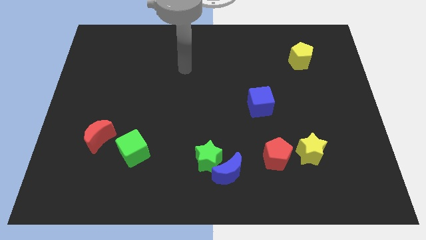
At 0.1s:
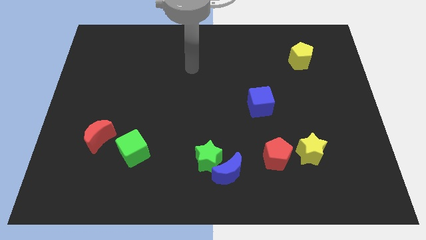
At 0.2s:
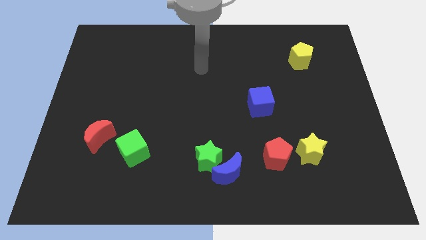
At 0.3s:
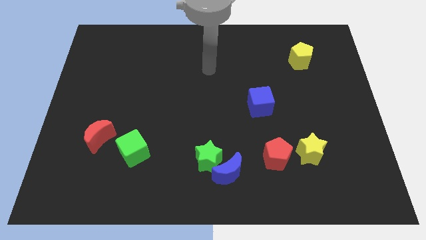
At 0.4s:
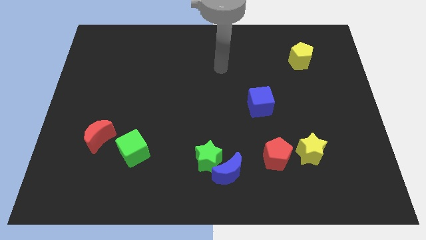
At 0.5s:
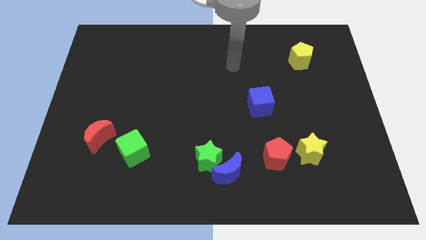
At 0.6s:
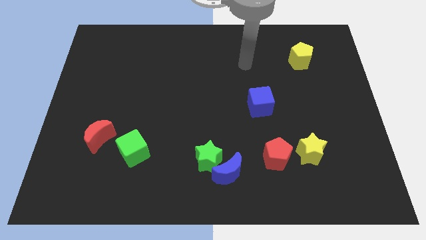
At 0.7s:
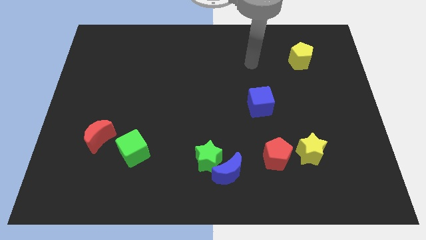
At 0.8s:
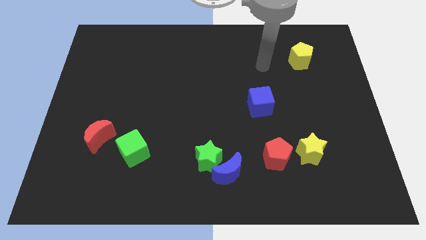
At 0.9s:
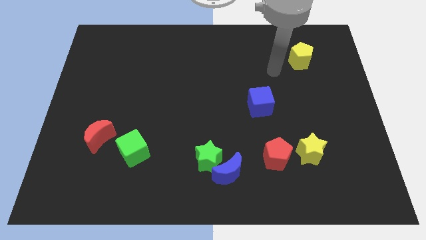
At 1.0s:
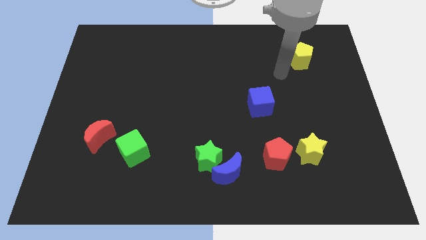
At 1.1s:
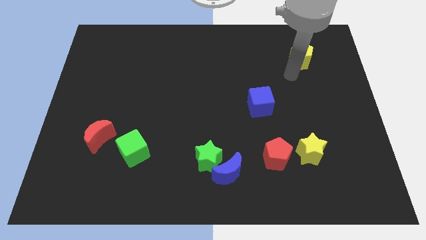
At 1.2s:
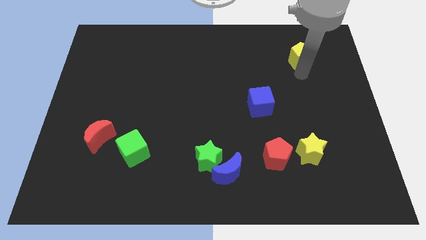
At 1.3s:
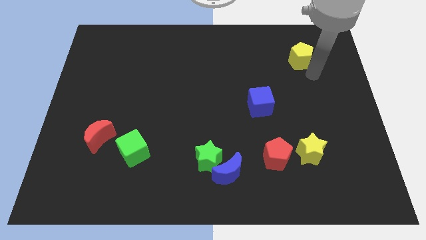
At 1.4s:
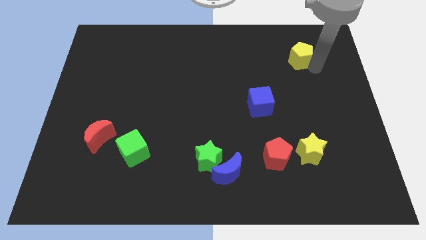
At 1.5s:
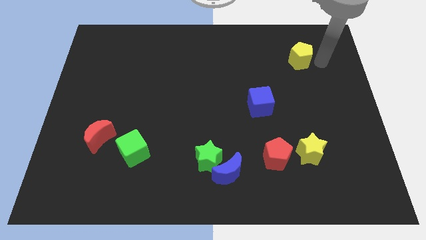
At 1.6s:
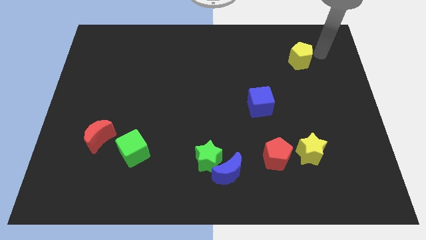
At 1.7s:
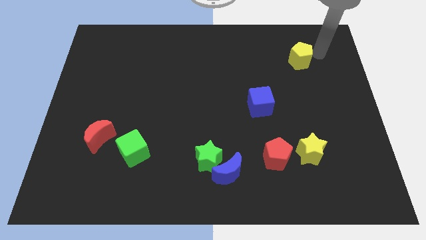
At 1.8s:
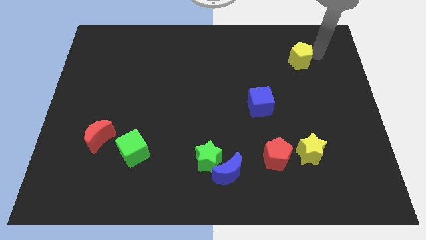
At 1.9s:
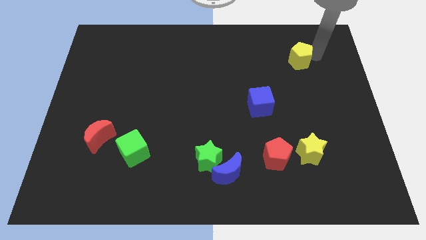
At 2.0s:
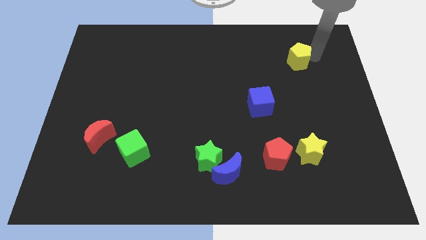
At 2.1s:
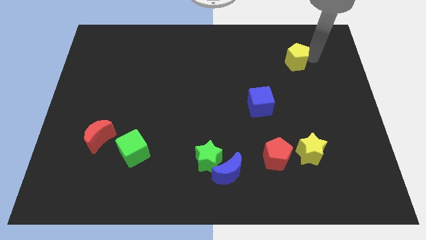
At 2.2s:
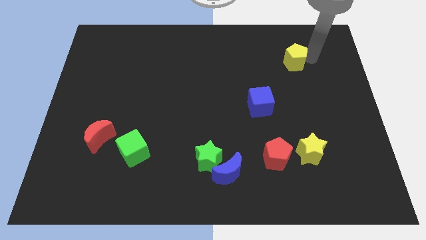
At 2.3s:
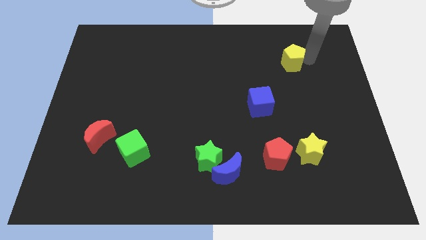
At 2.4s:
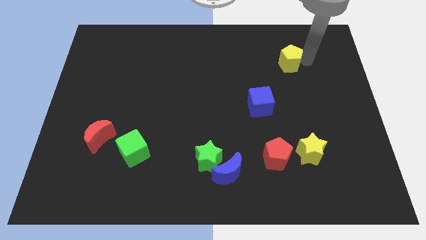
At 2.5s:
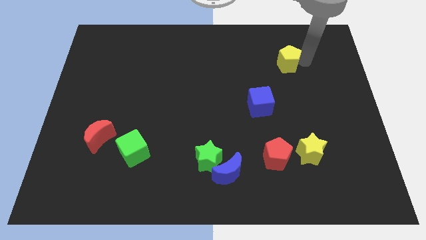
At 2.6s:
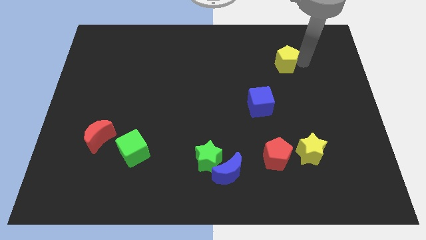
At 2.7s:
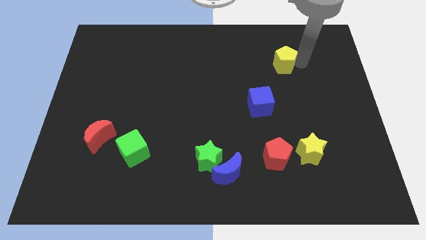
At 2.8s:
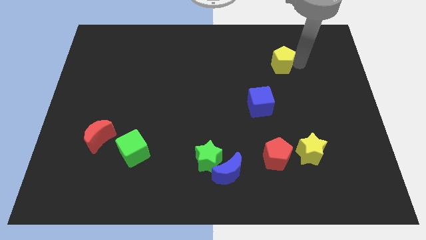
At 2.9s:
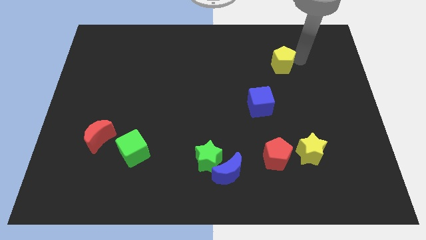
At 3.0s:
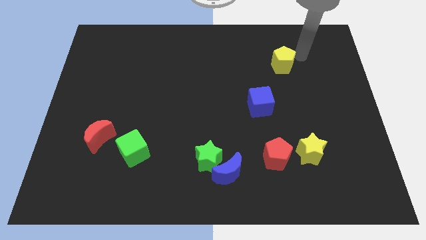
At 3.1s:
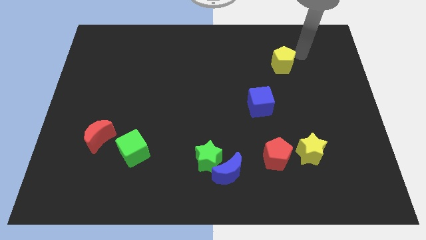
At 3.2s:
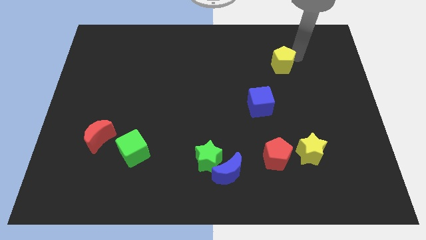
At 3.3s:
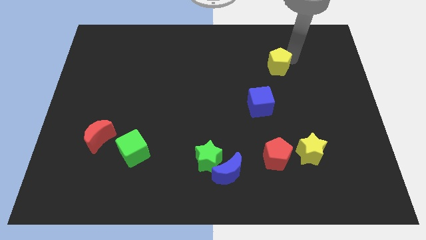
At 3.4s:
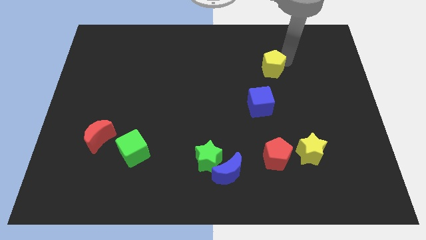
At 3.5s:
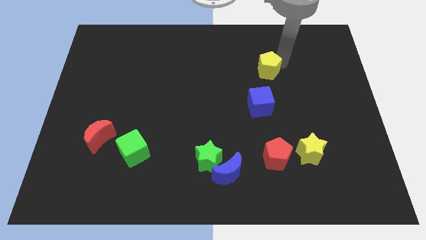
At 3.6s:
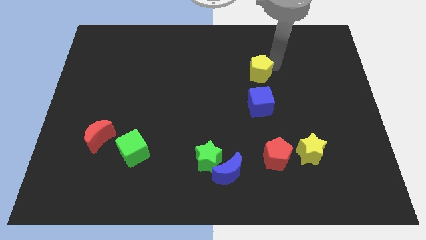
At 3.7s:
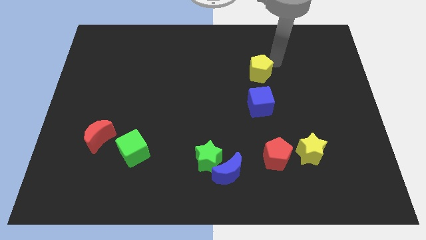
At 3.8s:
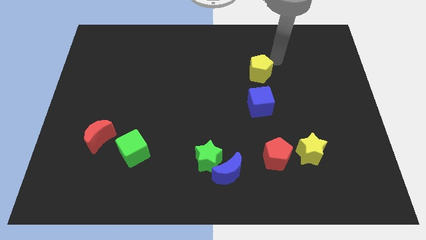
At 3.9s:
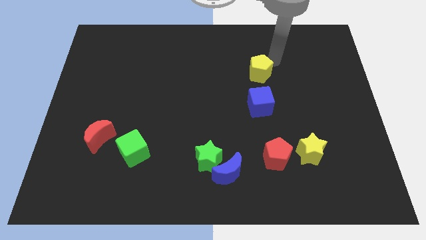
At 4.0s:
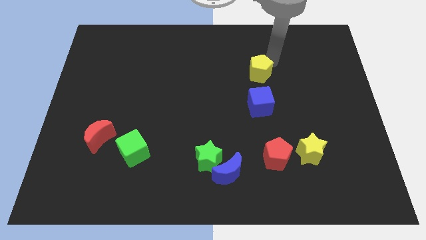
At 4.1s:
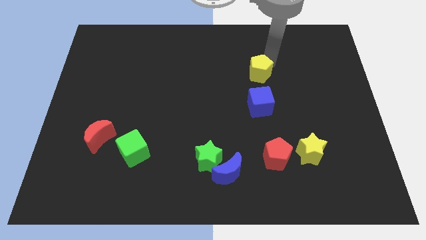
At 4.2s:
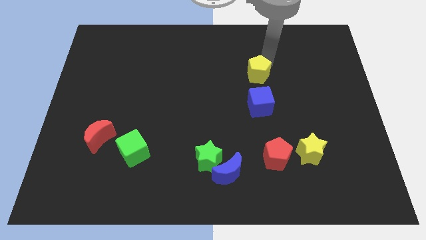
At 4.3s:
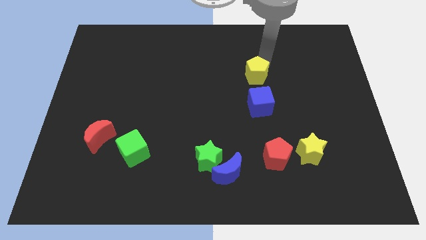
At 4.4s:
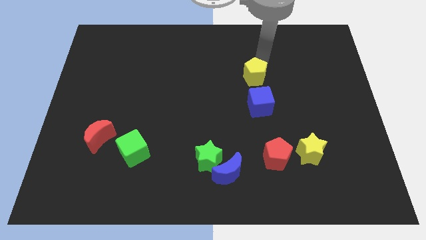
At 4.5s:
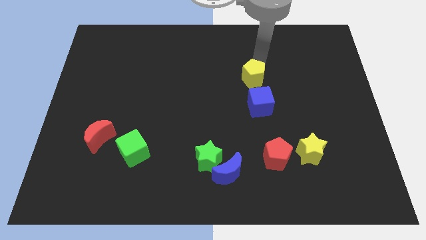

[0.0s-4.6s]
push the yellow pentagon to the center of the board

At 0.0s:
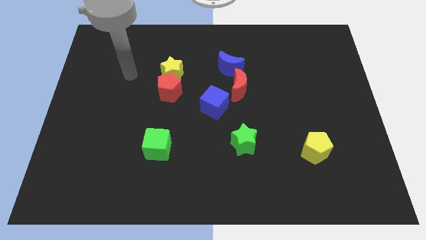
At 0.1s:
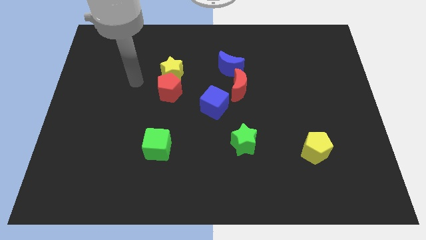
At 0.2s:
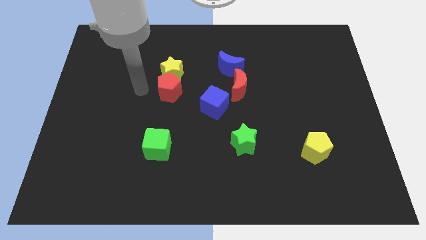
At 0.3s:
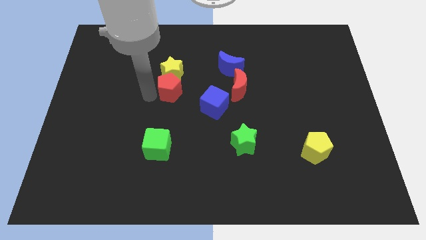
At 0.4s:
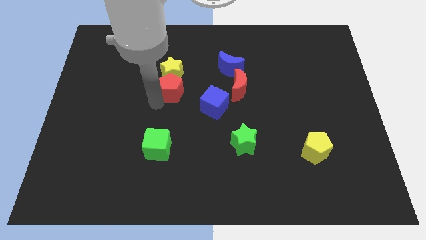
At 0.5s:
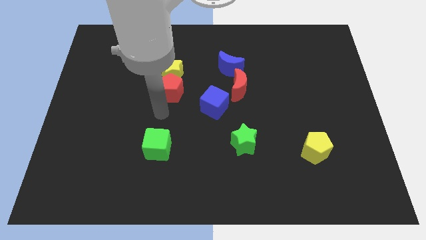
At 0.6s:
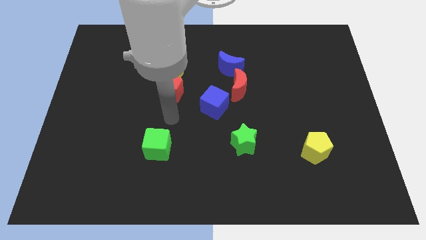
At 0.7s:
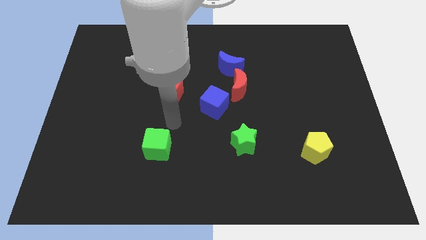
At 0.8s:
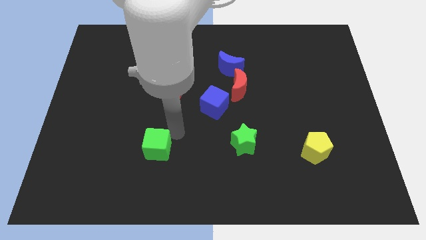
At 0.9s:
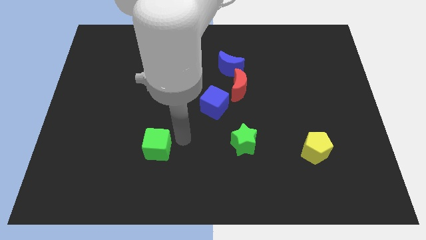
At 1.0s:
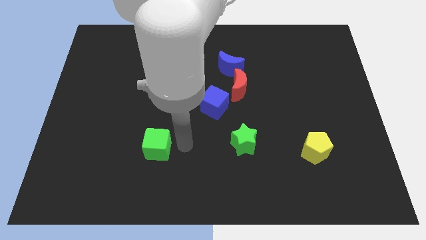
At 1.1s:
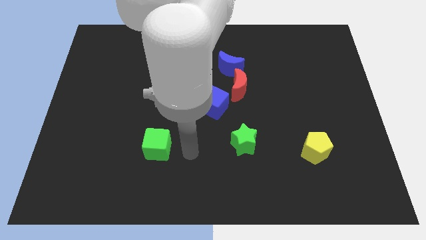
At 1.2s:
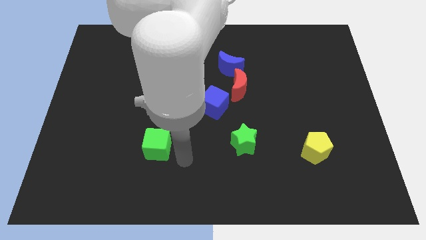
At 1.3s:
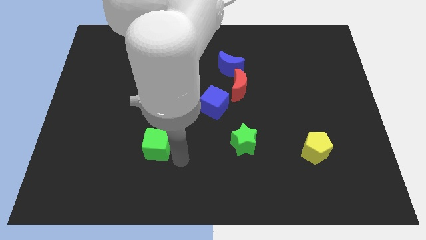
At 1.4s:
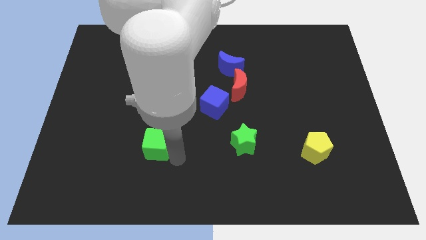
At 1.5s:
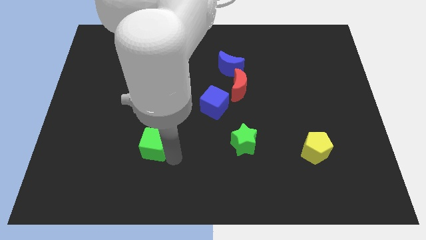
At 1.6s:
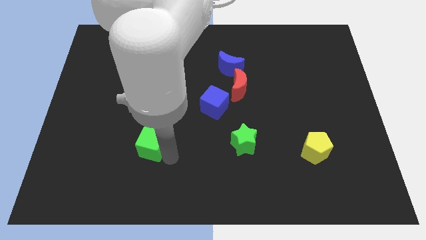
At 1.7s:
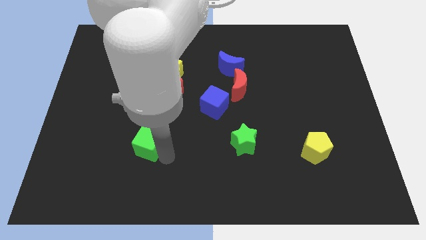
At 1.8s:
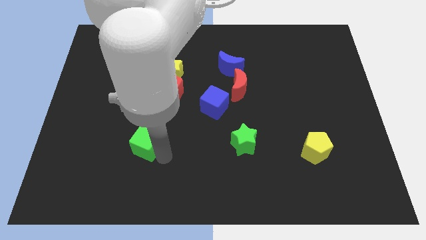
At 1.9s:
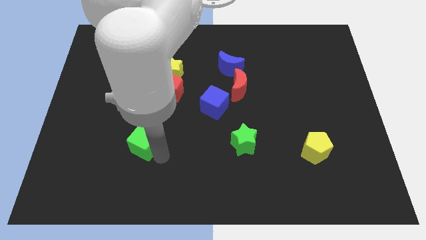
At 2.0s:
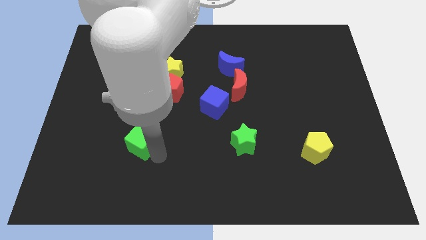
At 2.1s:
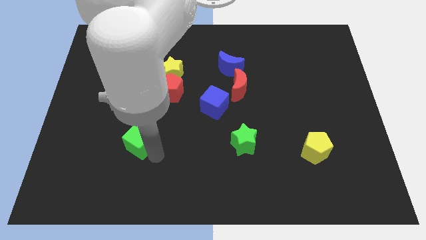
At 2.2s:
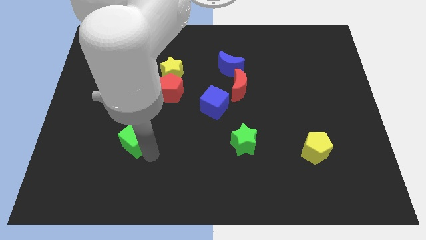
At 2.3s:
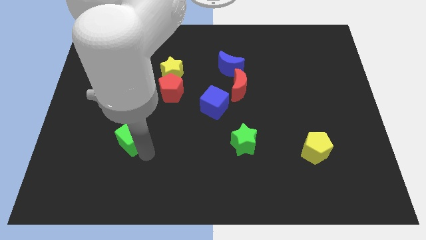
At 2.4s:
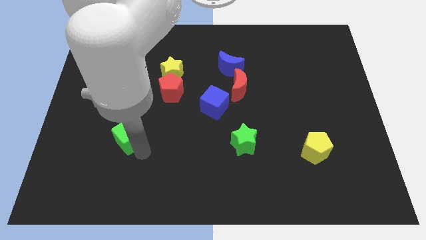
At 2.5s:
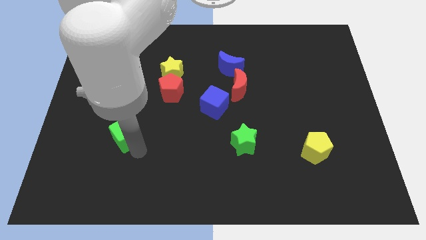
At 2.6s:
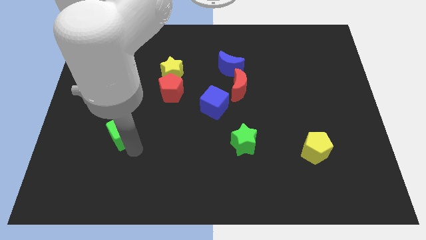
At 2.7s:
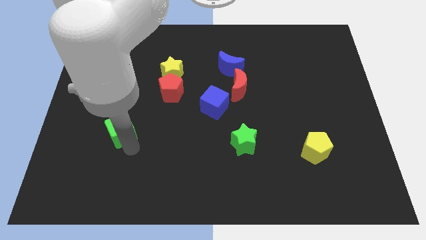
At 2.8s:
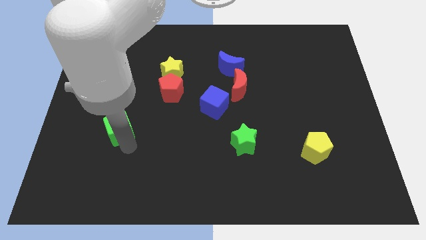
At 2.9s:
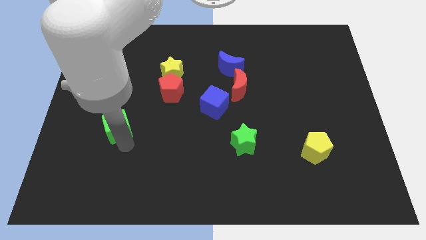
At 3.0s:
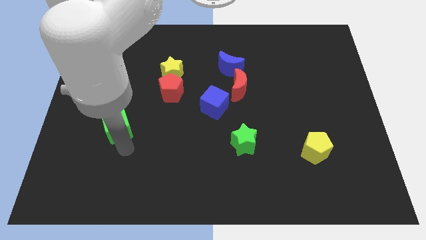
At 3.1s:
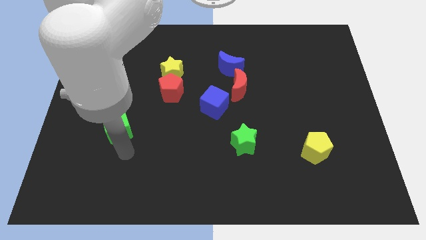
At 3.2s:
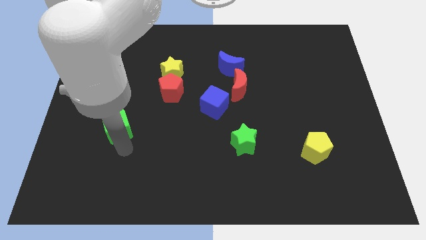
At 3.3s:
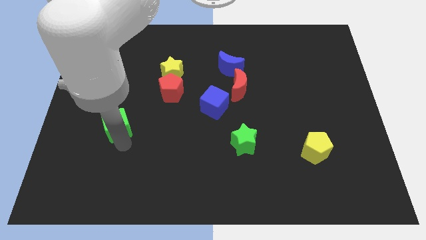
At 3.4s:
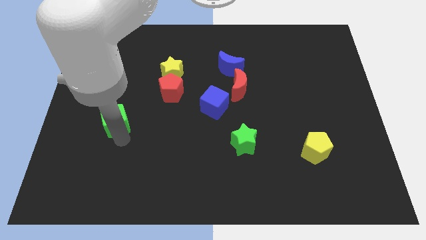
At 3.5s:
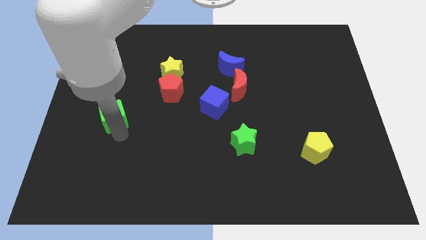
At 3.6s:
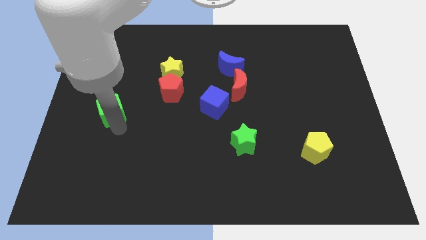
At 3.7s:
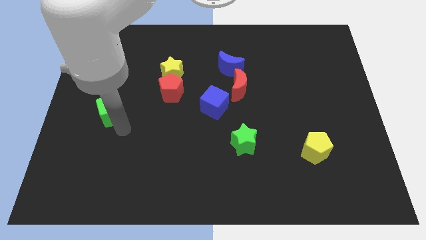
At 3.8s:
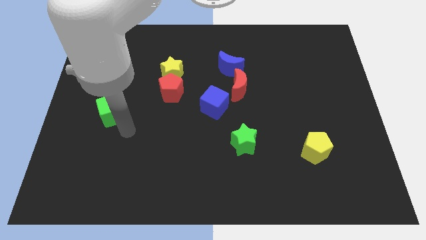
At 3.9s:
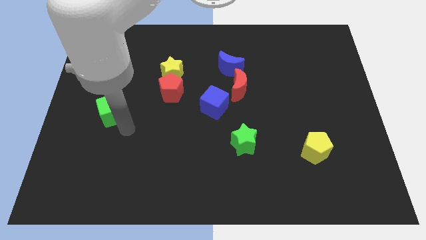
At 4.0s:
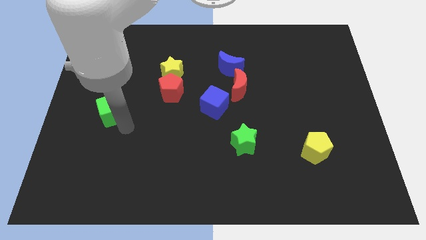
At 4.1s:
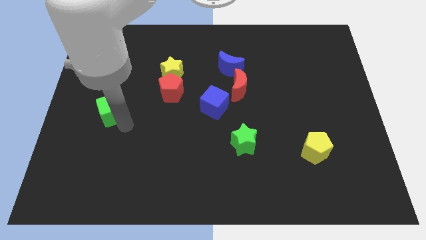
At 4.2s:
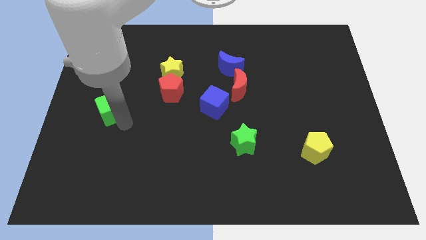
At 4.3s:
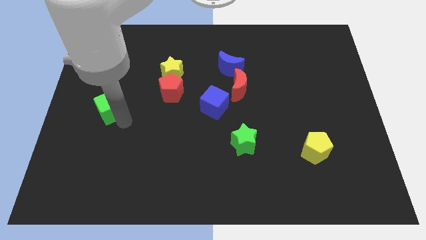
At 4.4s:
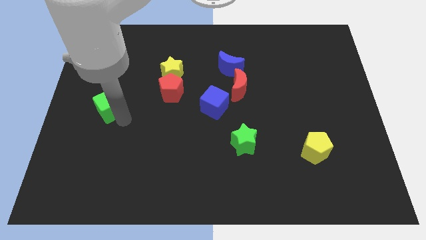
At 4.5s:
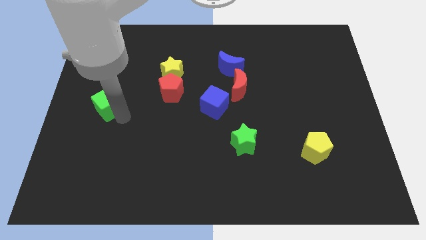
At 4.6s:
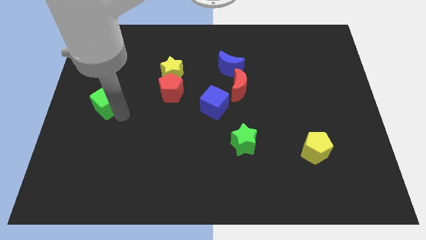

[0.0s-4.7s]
slide the green cube to the left side of the board
